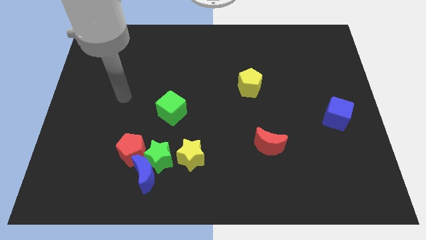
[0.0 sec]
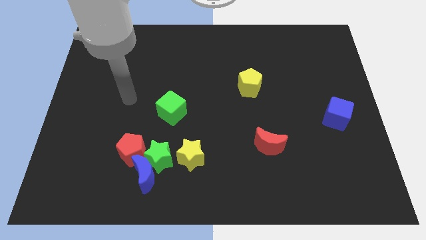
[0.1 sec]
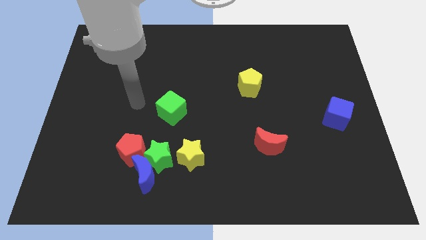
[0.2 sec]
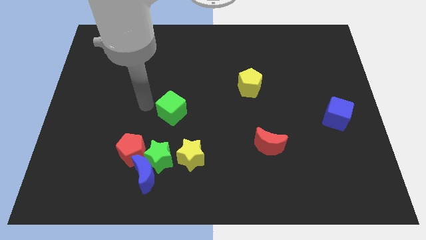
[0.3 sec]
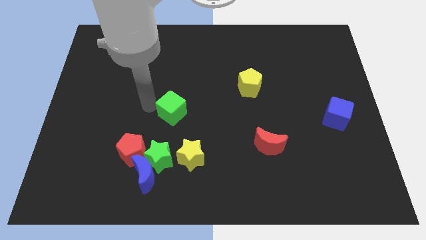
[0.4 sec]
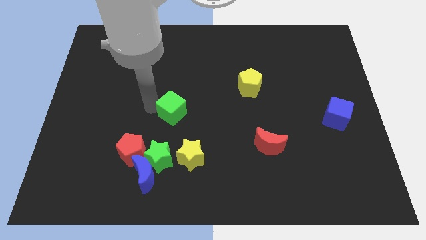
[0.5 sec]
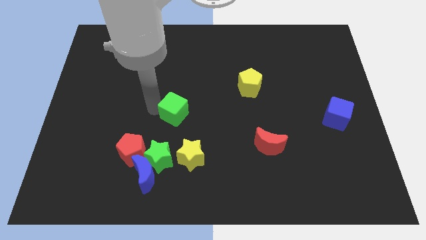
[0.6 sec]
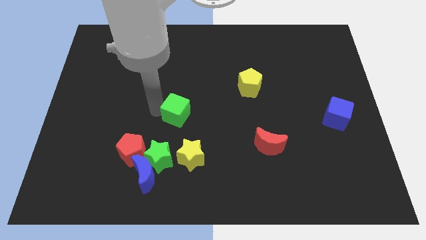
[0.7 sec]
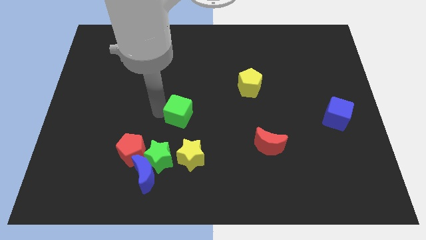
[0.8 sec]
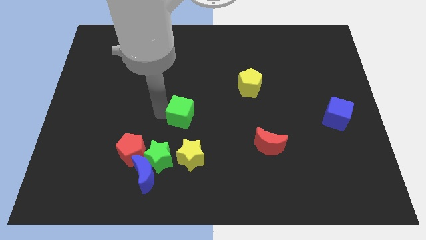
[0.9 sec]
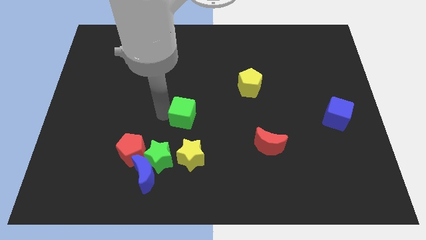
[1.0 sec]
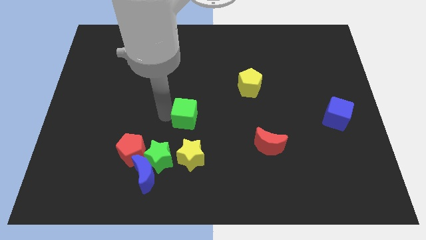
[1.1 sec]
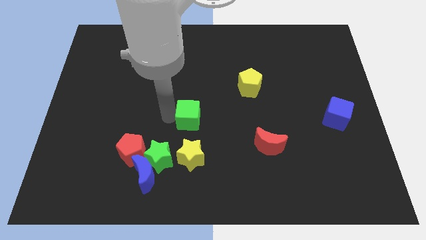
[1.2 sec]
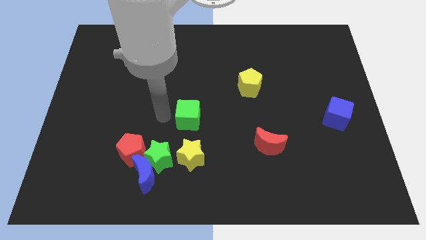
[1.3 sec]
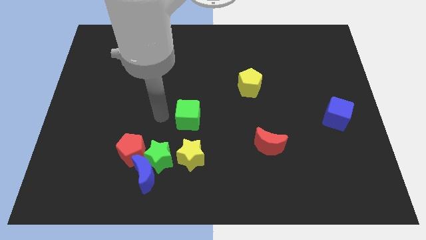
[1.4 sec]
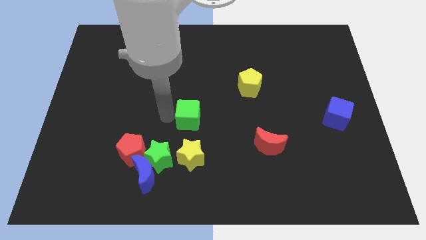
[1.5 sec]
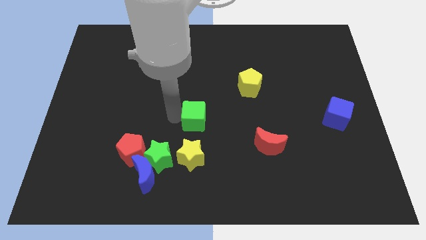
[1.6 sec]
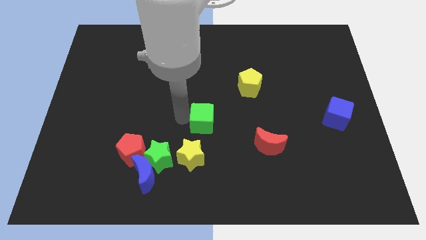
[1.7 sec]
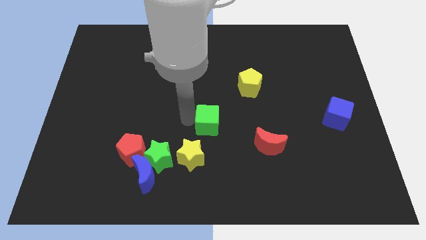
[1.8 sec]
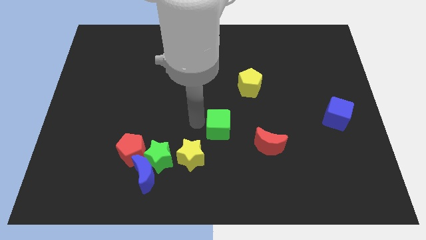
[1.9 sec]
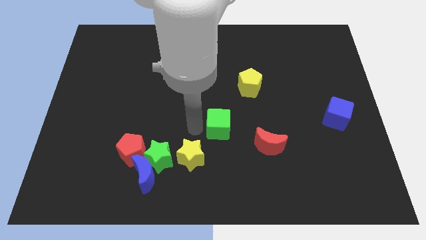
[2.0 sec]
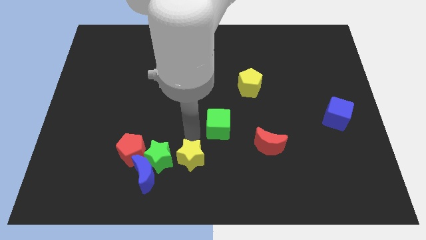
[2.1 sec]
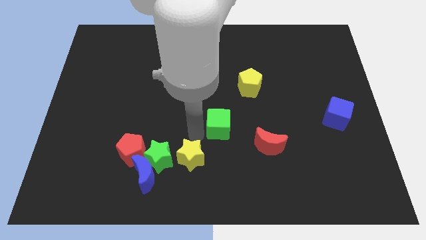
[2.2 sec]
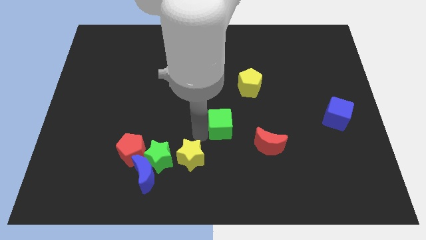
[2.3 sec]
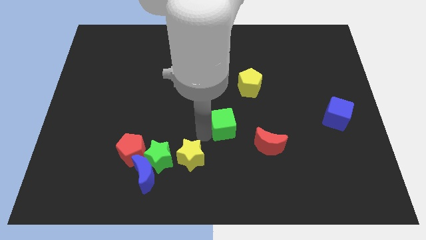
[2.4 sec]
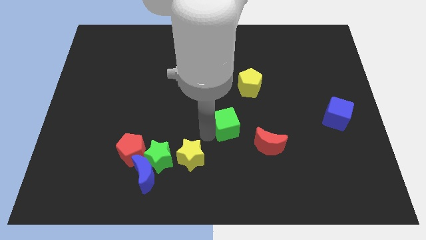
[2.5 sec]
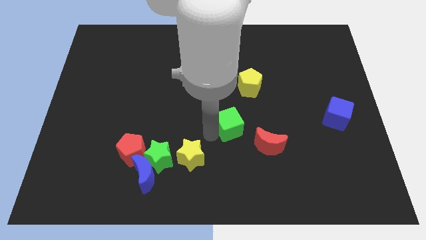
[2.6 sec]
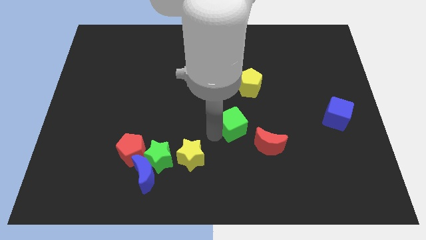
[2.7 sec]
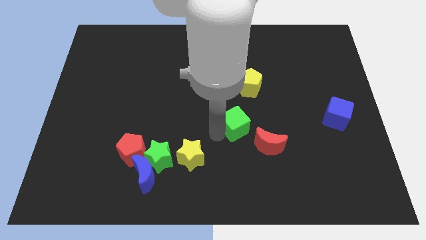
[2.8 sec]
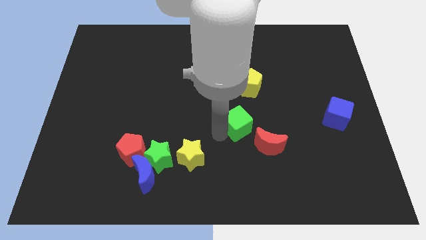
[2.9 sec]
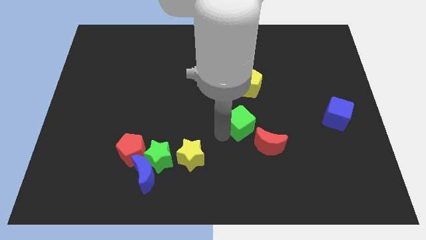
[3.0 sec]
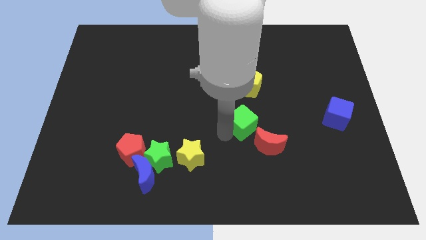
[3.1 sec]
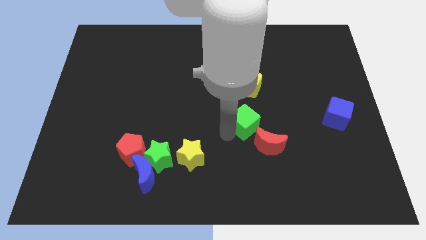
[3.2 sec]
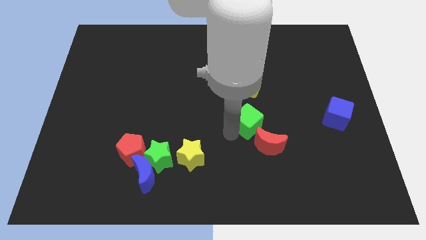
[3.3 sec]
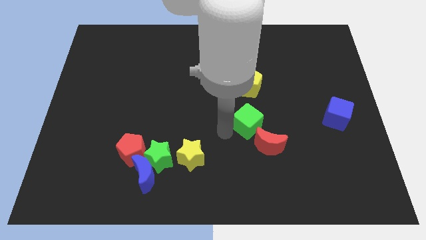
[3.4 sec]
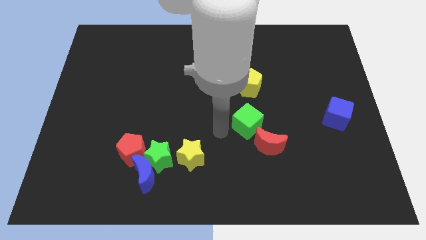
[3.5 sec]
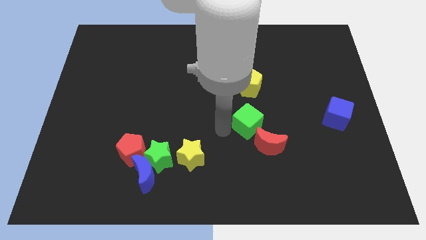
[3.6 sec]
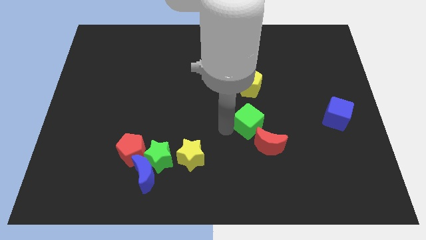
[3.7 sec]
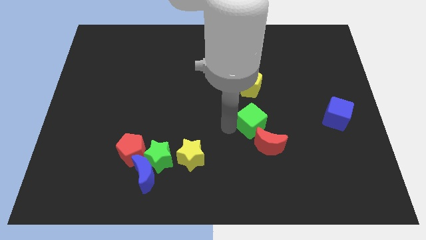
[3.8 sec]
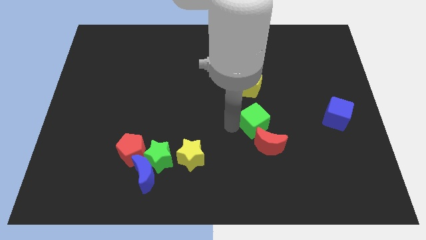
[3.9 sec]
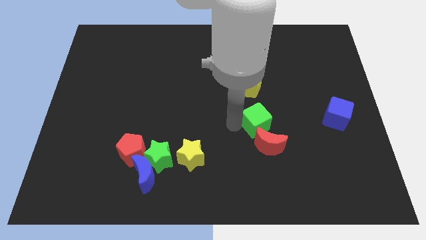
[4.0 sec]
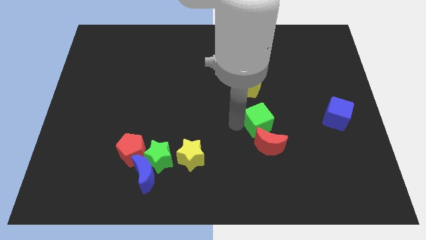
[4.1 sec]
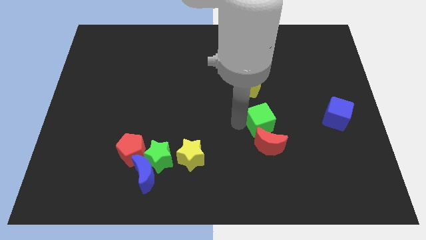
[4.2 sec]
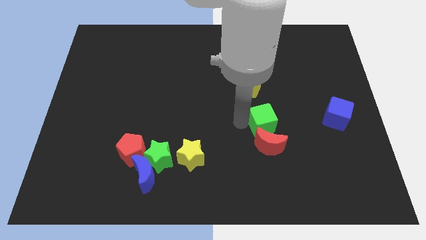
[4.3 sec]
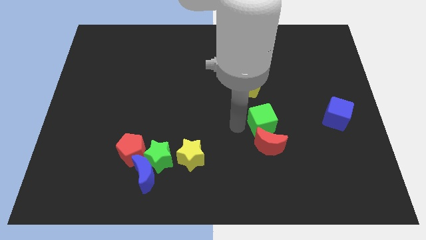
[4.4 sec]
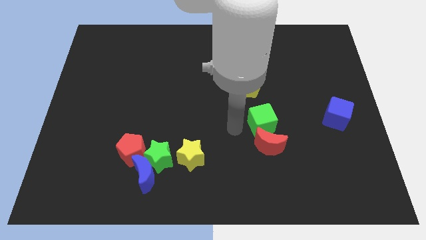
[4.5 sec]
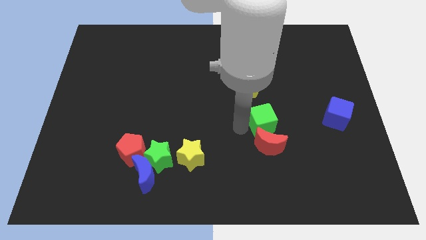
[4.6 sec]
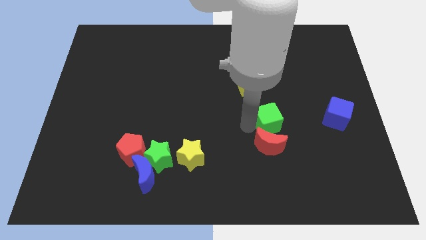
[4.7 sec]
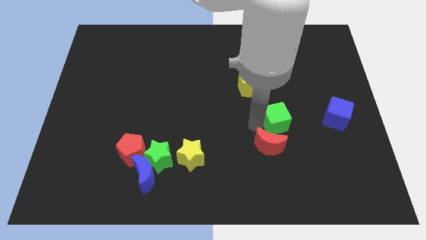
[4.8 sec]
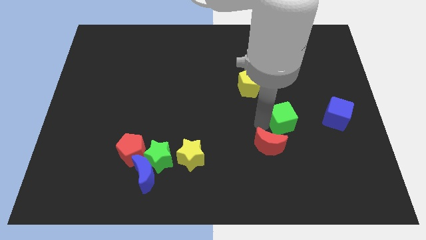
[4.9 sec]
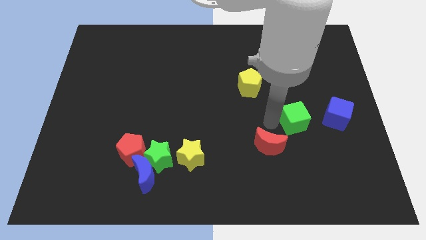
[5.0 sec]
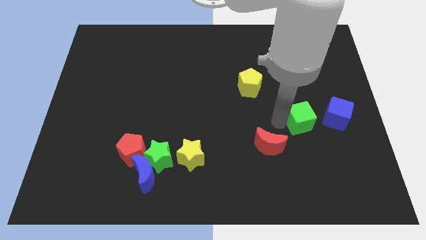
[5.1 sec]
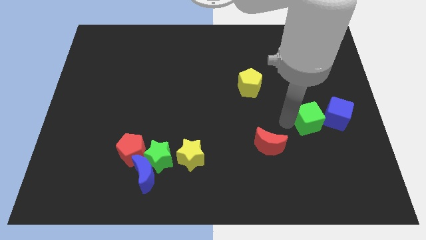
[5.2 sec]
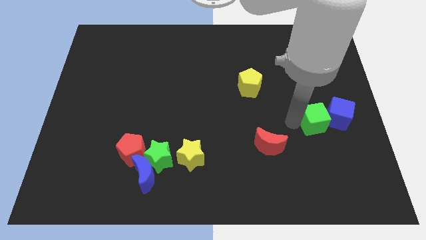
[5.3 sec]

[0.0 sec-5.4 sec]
move the green cube next to the blue cube

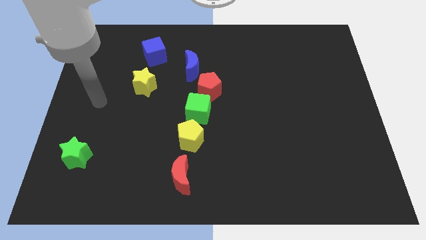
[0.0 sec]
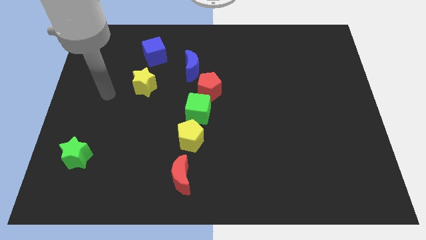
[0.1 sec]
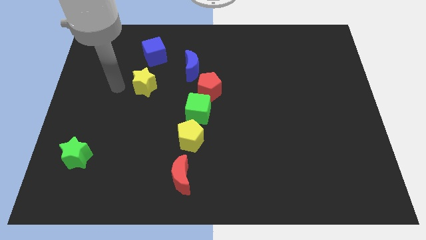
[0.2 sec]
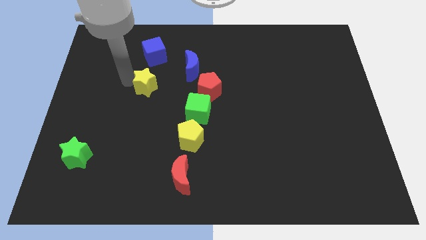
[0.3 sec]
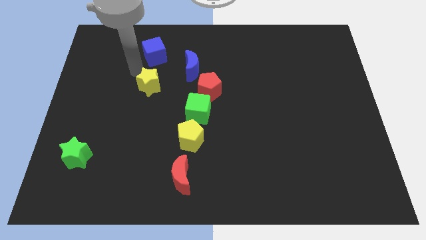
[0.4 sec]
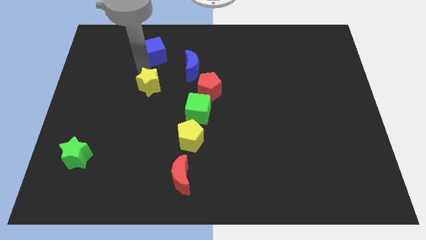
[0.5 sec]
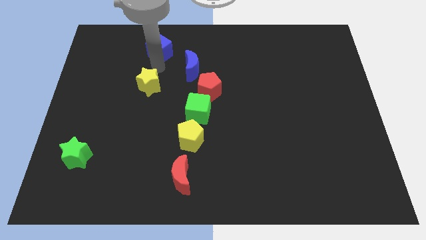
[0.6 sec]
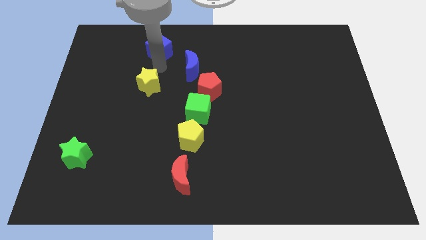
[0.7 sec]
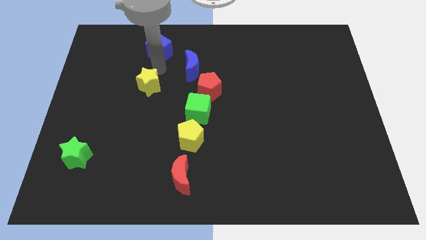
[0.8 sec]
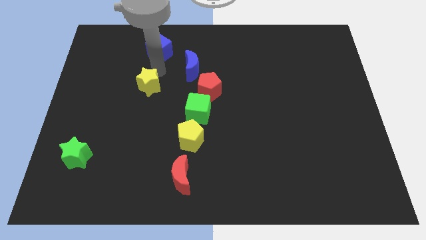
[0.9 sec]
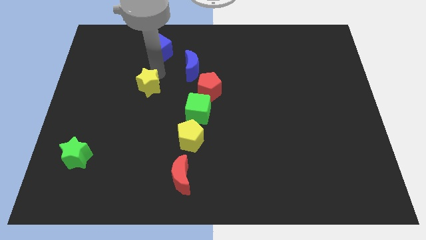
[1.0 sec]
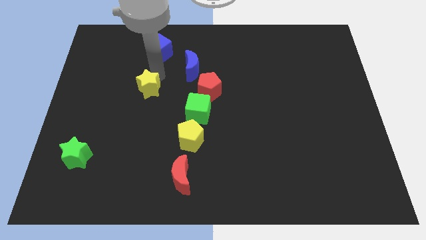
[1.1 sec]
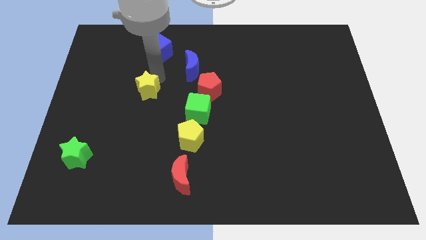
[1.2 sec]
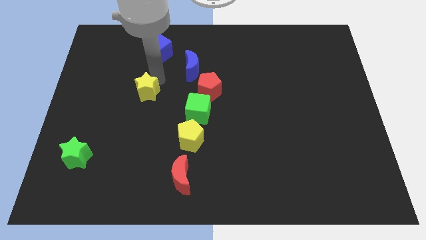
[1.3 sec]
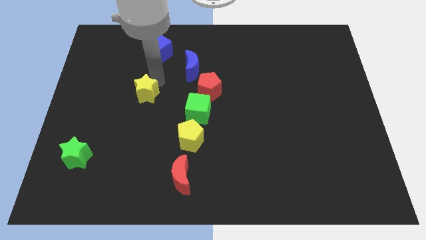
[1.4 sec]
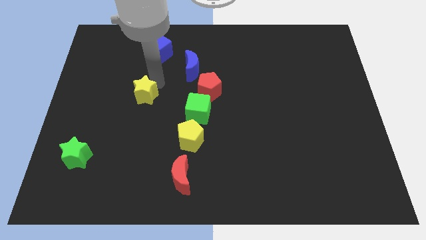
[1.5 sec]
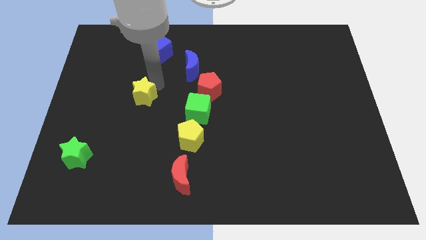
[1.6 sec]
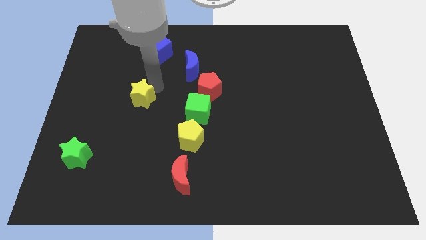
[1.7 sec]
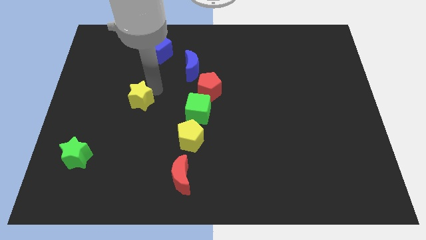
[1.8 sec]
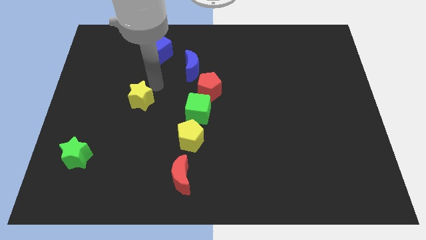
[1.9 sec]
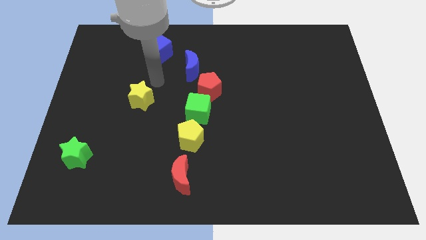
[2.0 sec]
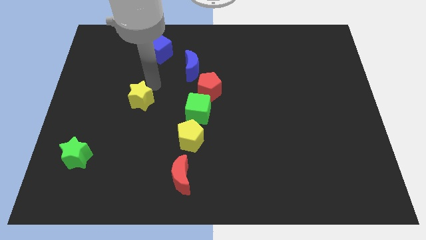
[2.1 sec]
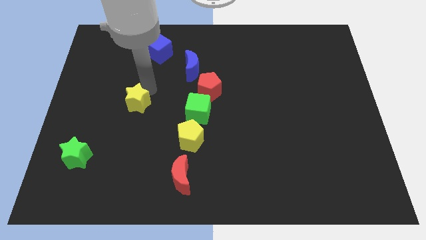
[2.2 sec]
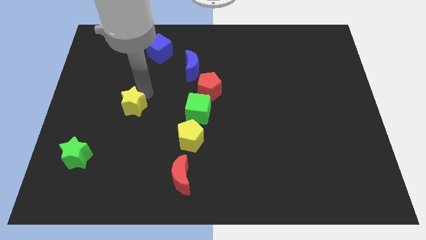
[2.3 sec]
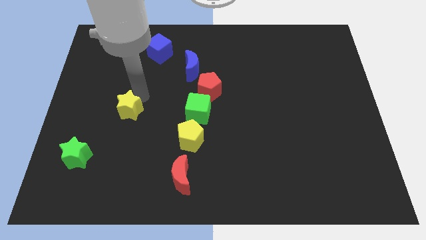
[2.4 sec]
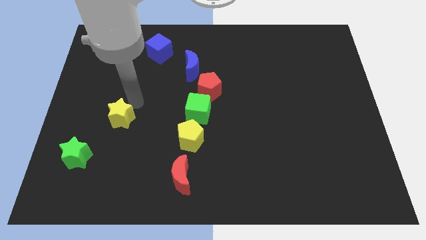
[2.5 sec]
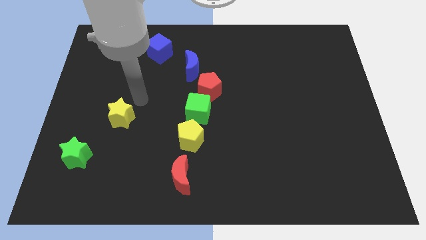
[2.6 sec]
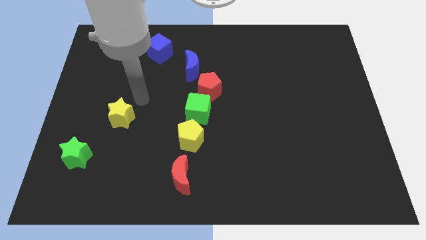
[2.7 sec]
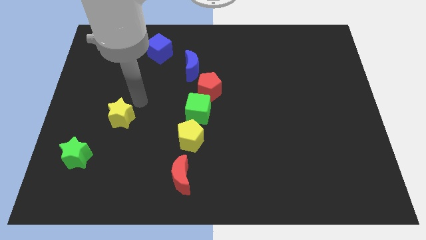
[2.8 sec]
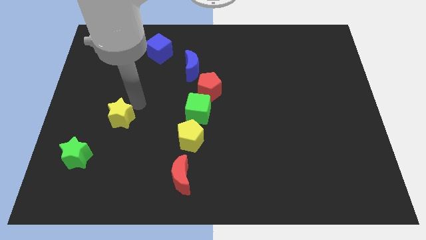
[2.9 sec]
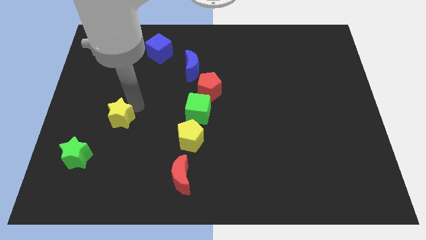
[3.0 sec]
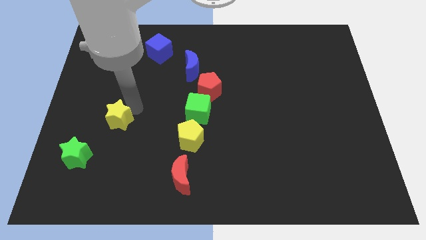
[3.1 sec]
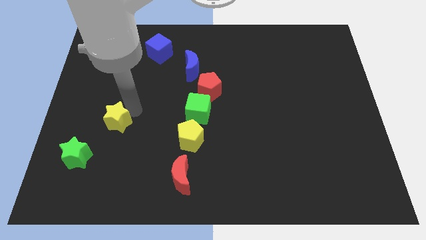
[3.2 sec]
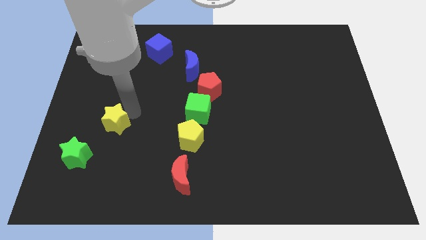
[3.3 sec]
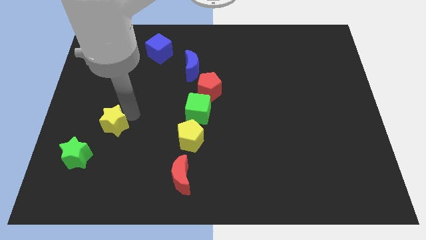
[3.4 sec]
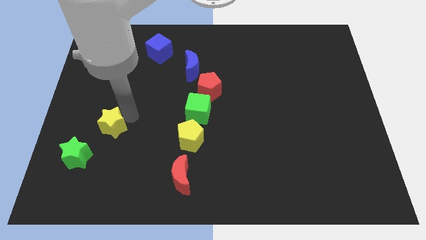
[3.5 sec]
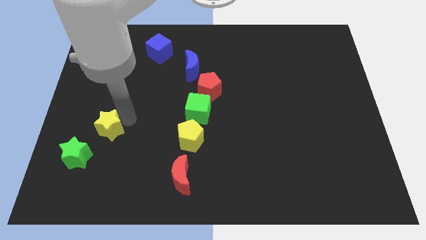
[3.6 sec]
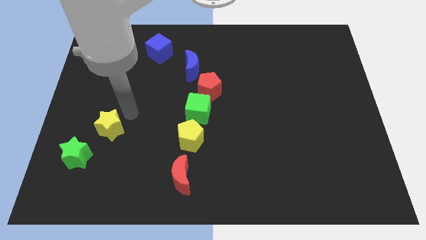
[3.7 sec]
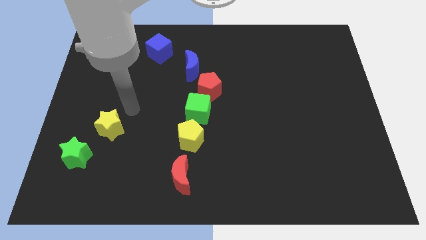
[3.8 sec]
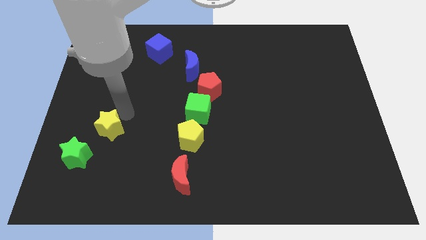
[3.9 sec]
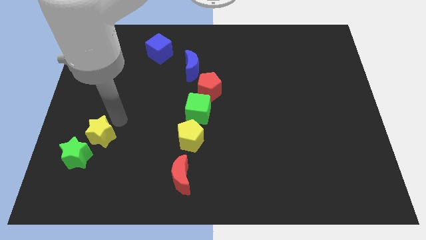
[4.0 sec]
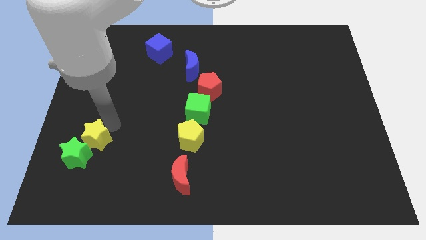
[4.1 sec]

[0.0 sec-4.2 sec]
slide the yellow star next to the green star
